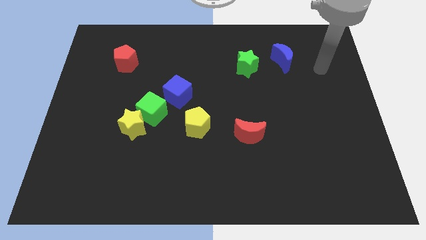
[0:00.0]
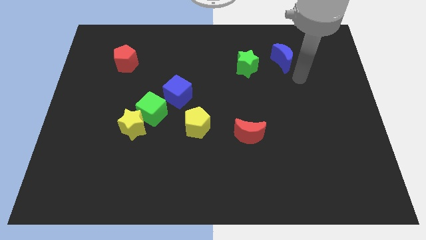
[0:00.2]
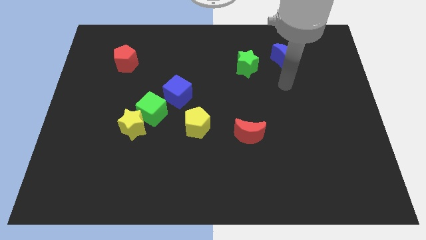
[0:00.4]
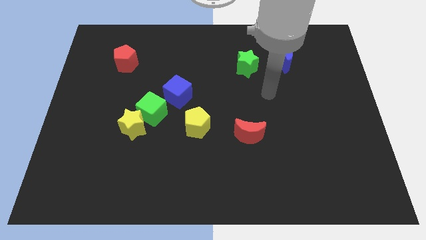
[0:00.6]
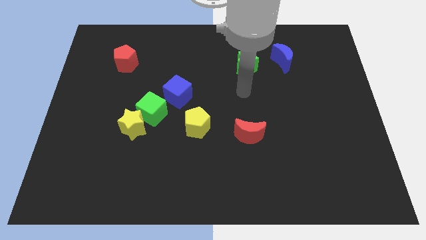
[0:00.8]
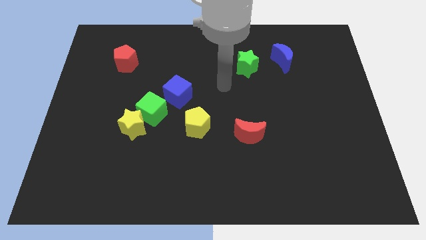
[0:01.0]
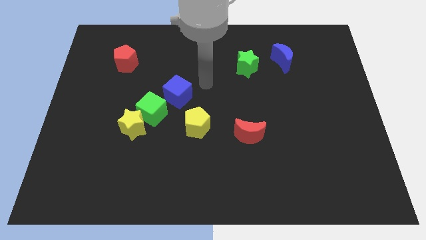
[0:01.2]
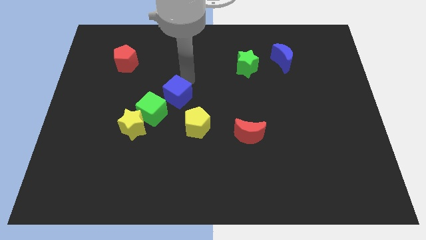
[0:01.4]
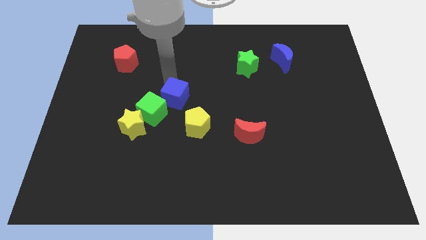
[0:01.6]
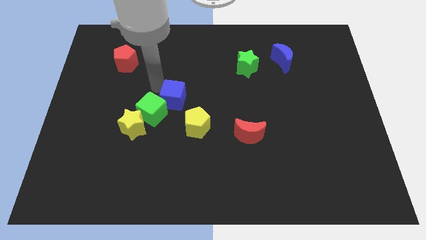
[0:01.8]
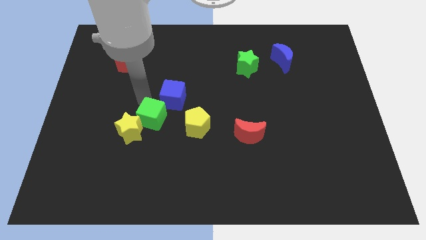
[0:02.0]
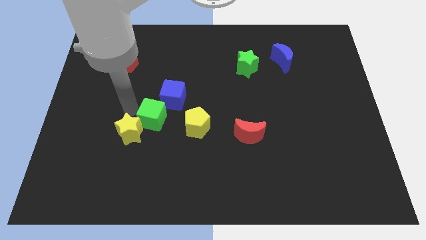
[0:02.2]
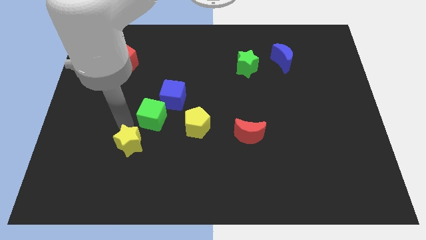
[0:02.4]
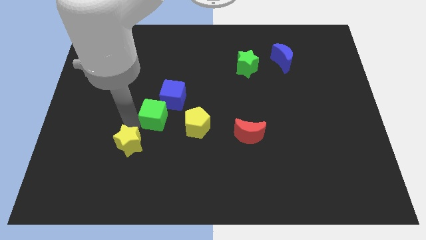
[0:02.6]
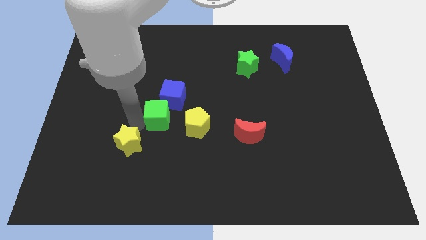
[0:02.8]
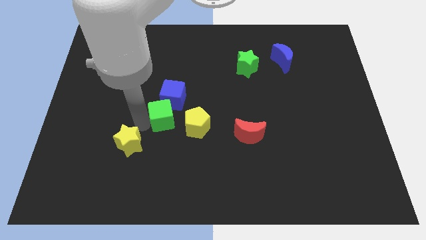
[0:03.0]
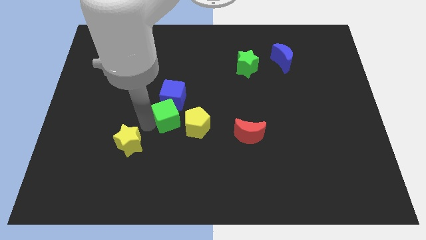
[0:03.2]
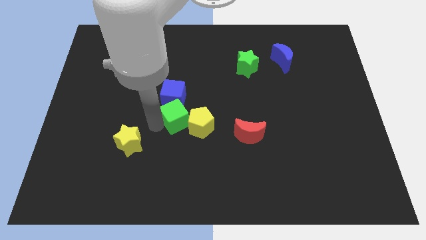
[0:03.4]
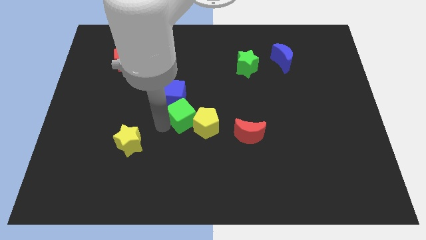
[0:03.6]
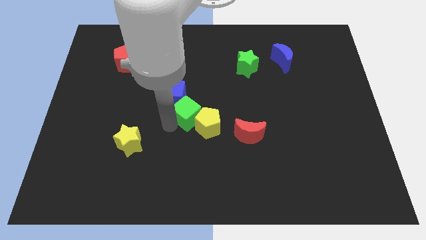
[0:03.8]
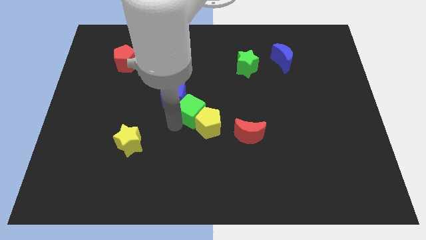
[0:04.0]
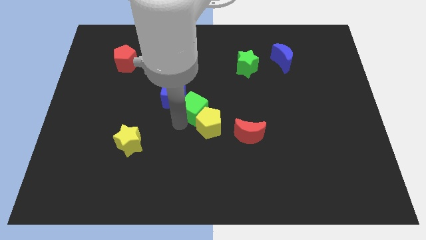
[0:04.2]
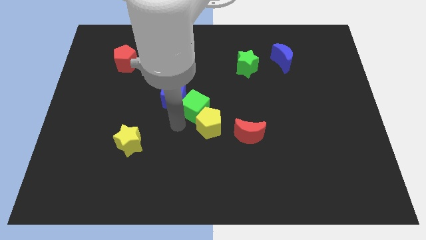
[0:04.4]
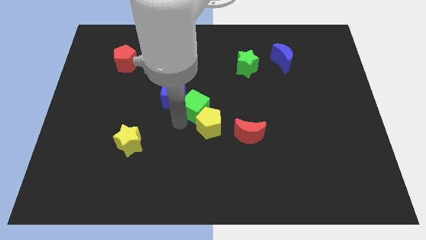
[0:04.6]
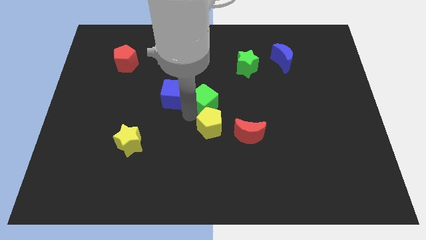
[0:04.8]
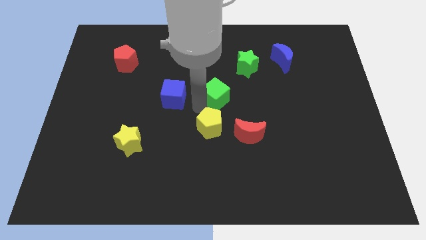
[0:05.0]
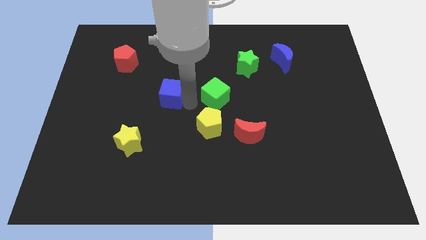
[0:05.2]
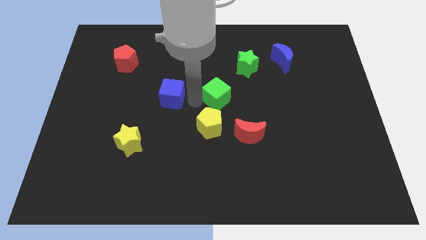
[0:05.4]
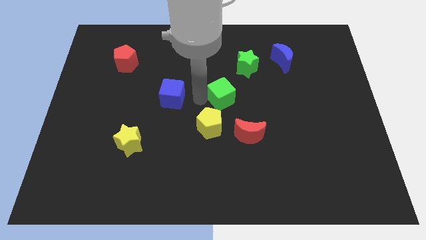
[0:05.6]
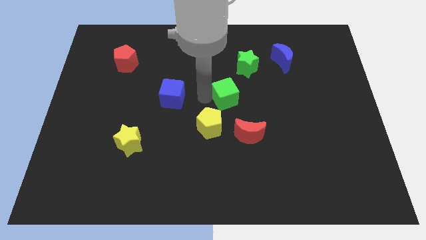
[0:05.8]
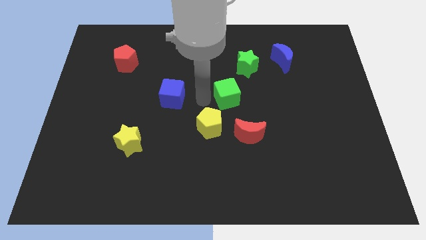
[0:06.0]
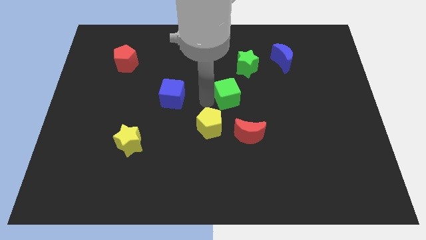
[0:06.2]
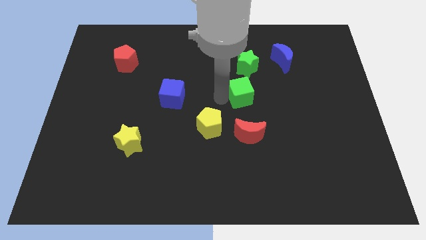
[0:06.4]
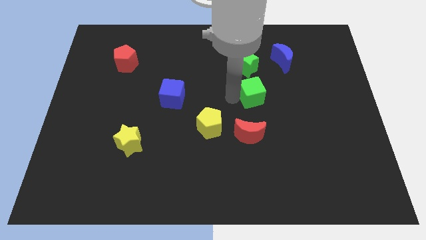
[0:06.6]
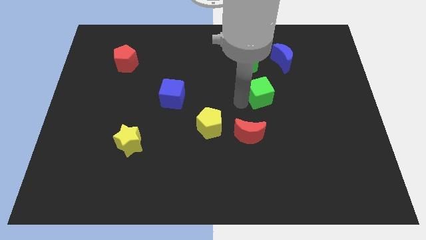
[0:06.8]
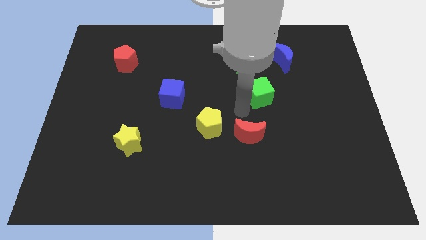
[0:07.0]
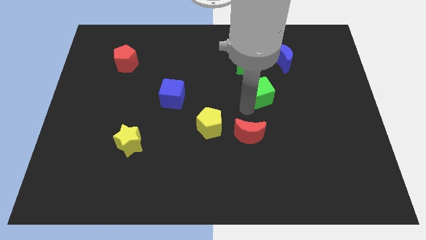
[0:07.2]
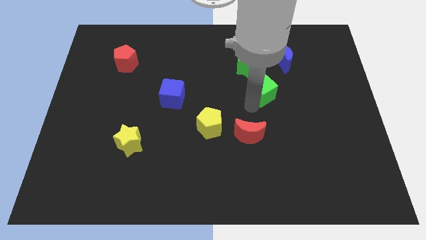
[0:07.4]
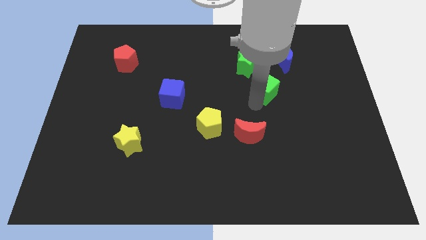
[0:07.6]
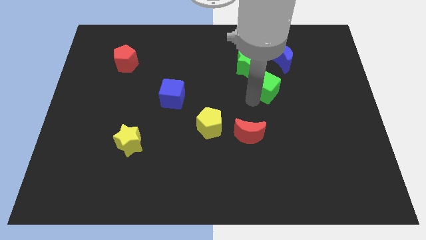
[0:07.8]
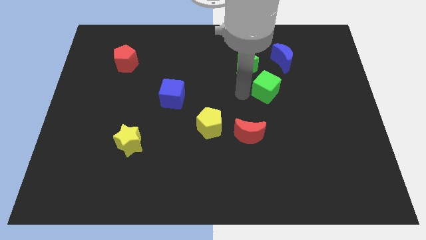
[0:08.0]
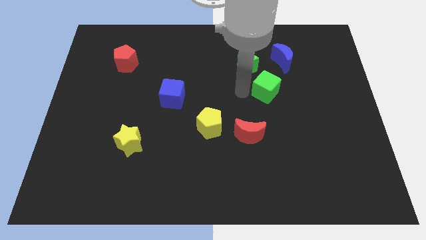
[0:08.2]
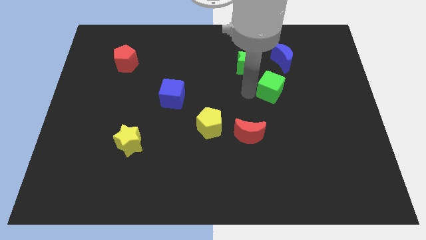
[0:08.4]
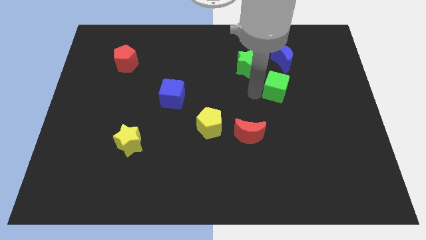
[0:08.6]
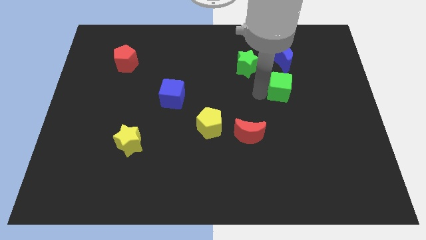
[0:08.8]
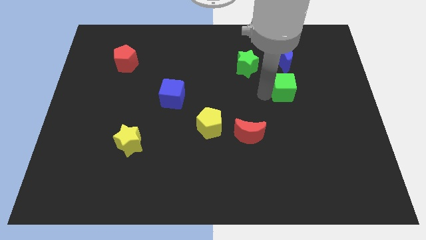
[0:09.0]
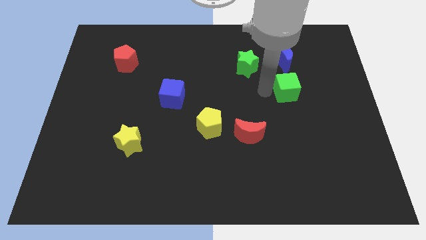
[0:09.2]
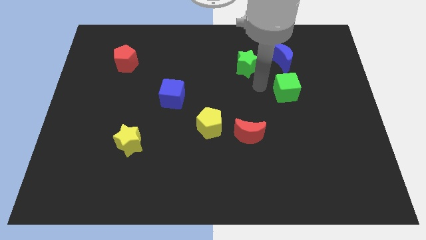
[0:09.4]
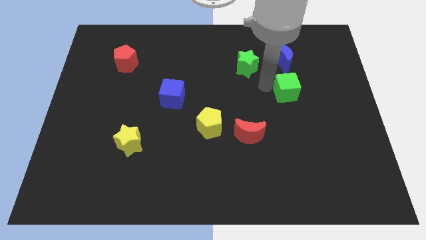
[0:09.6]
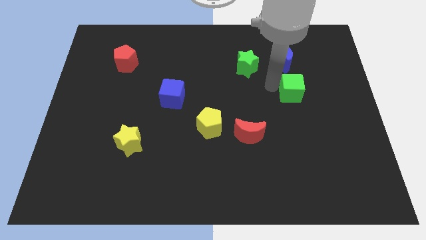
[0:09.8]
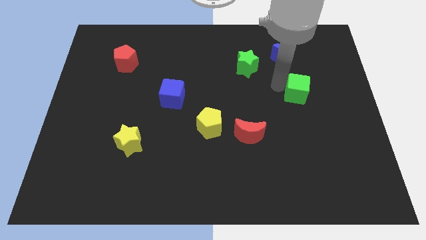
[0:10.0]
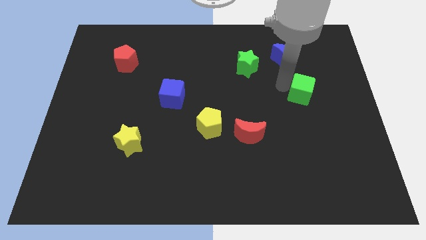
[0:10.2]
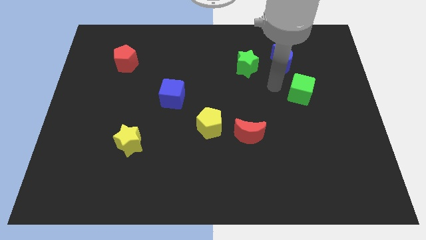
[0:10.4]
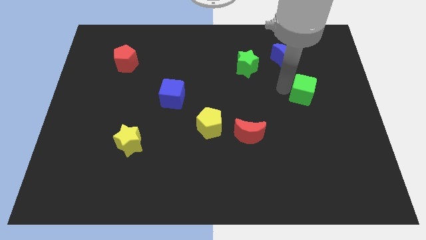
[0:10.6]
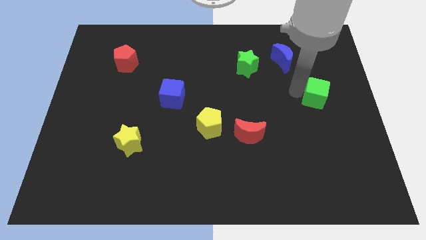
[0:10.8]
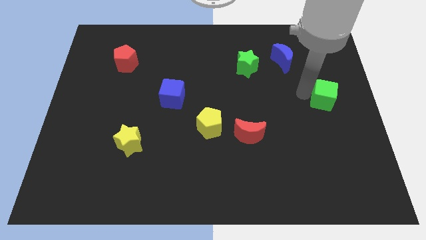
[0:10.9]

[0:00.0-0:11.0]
slide the green cube to the center right

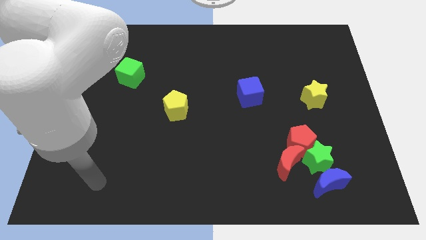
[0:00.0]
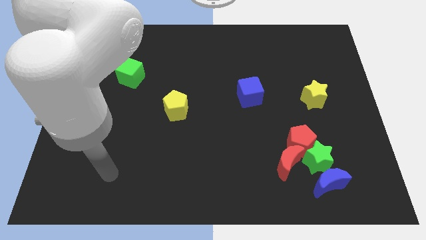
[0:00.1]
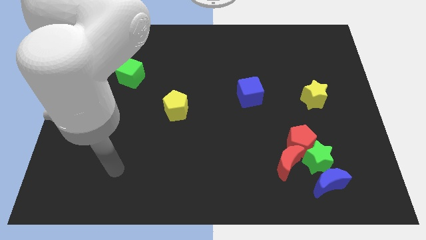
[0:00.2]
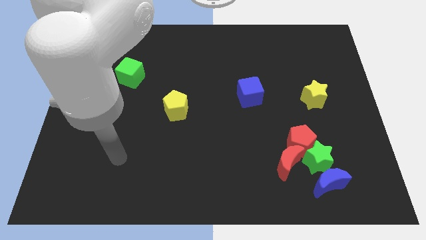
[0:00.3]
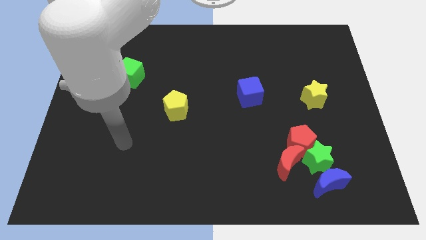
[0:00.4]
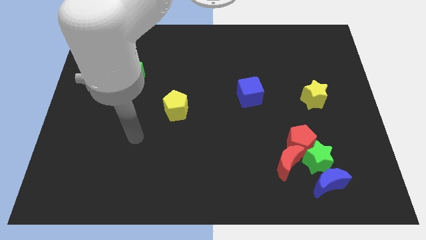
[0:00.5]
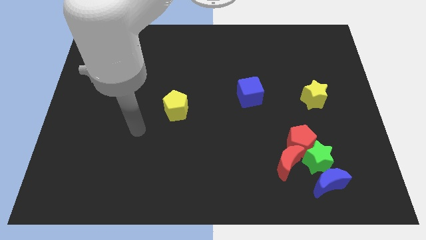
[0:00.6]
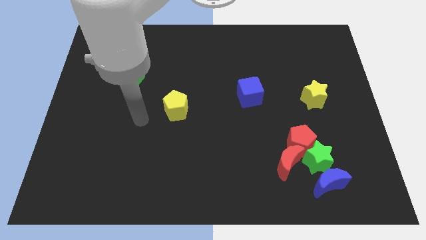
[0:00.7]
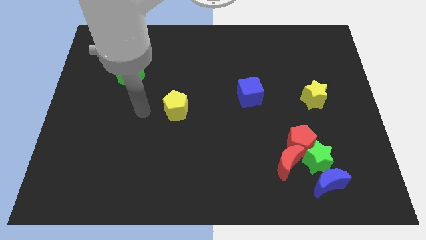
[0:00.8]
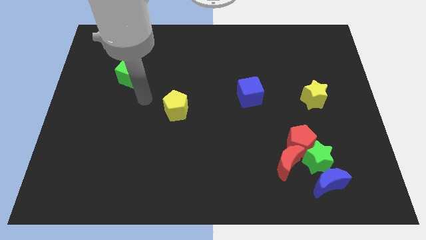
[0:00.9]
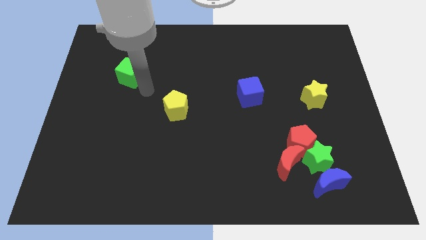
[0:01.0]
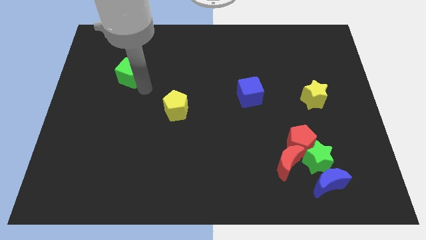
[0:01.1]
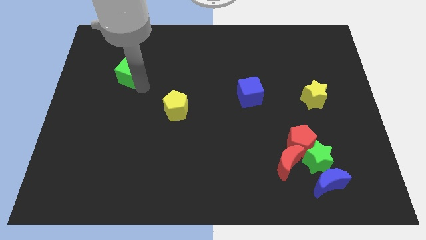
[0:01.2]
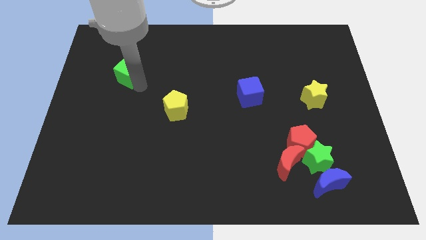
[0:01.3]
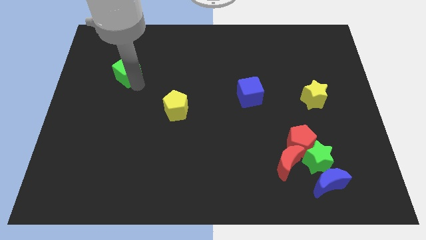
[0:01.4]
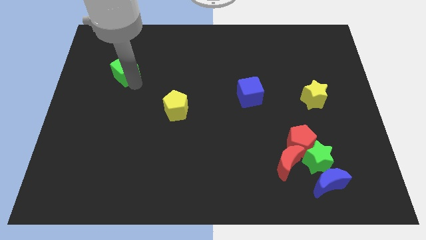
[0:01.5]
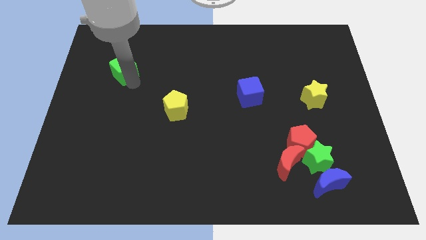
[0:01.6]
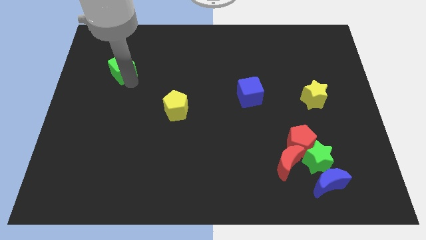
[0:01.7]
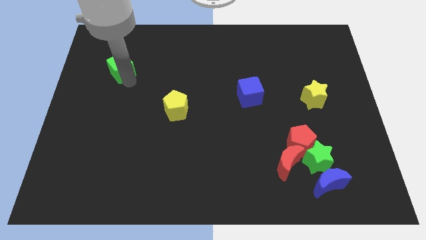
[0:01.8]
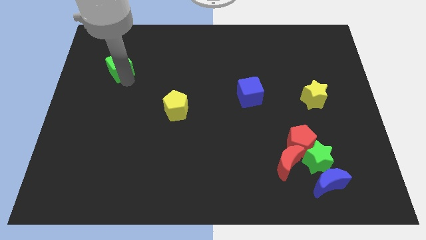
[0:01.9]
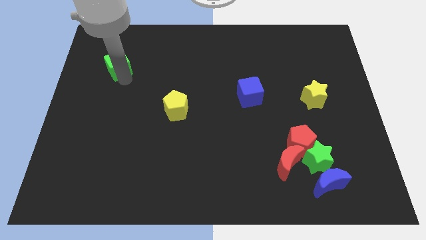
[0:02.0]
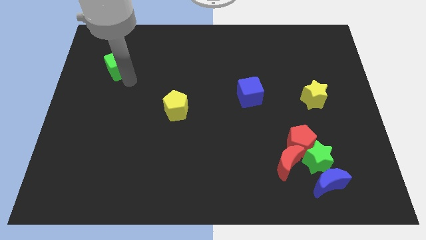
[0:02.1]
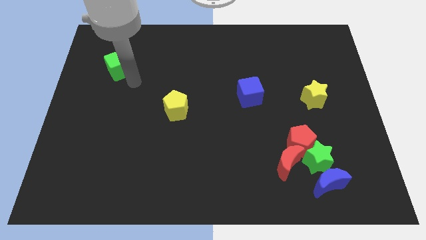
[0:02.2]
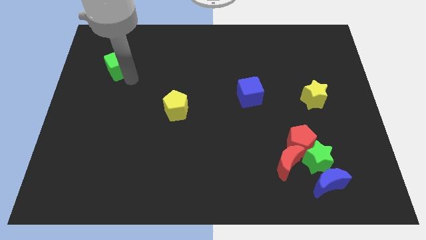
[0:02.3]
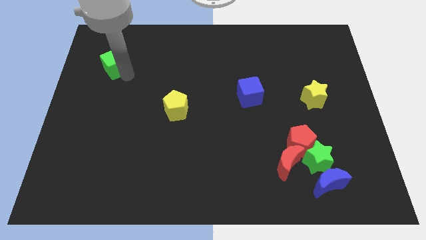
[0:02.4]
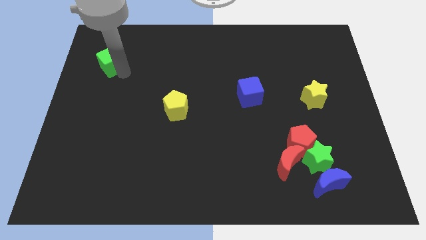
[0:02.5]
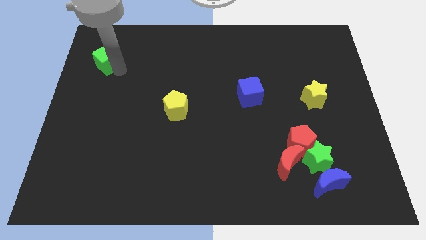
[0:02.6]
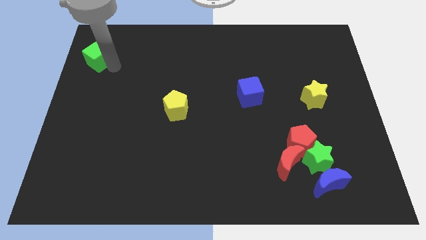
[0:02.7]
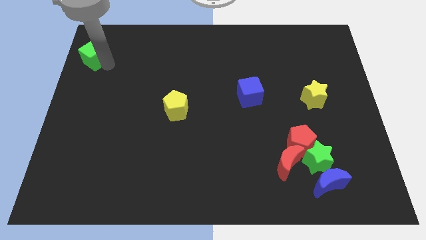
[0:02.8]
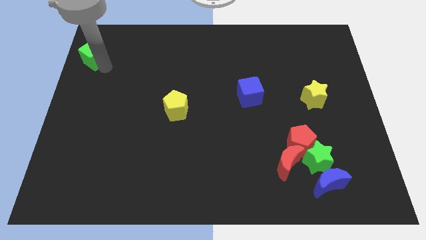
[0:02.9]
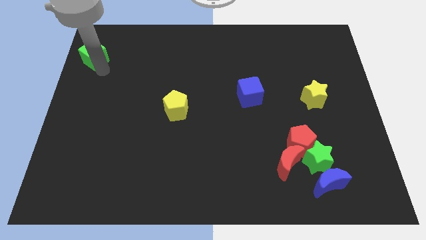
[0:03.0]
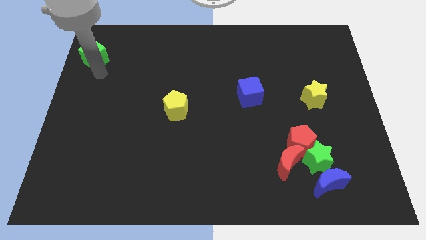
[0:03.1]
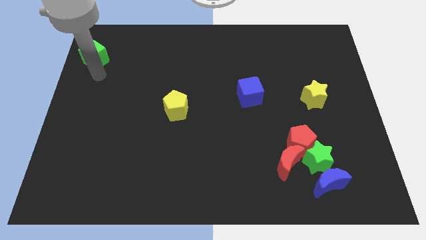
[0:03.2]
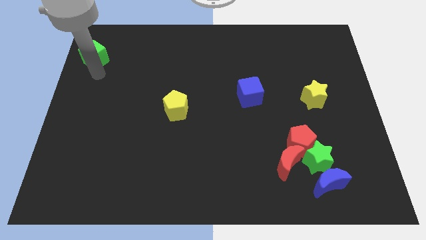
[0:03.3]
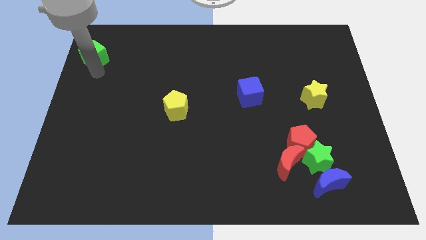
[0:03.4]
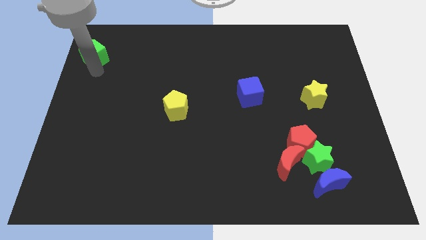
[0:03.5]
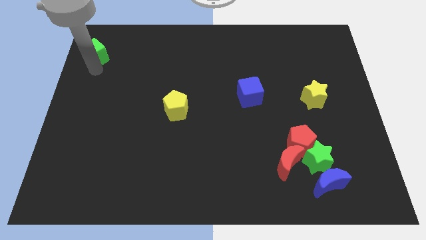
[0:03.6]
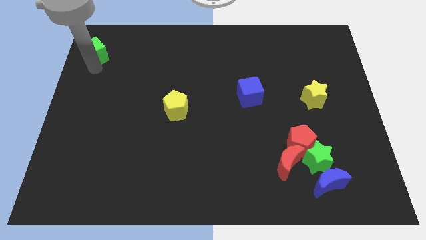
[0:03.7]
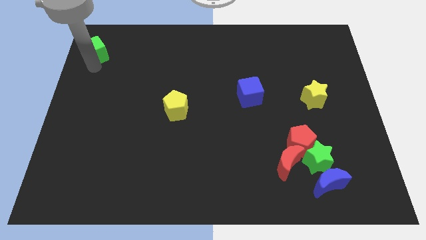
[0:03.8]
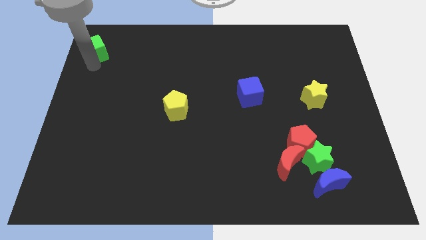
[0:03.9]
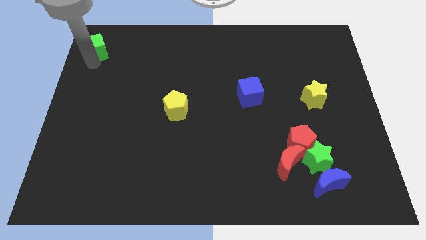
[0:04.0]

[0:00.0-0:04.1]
push the green cube to the top left of the board
